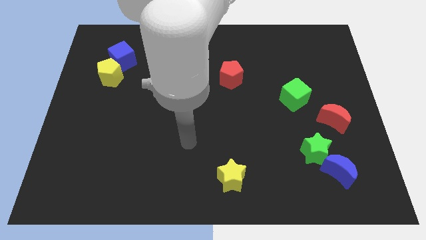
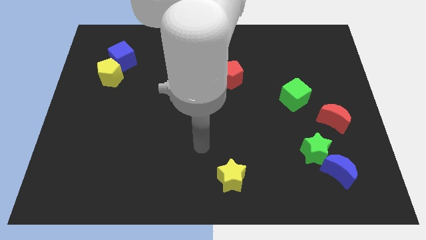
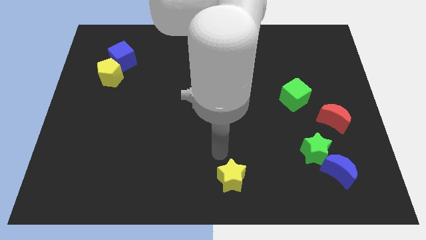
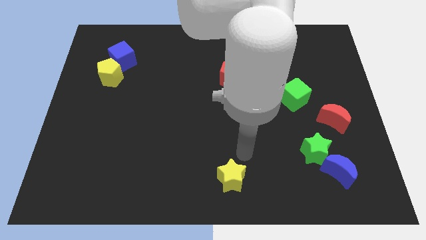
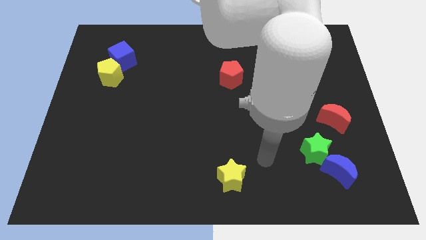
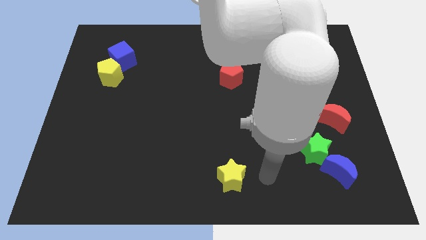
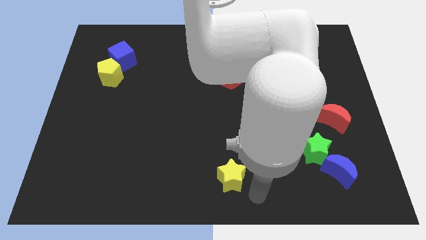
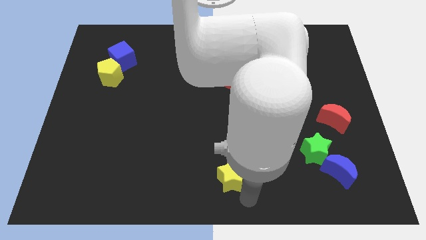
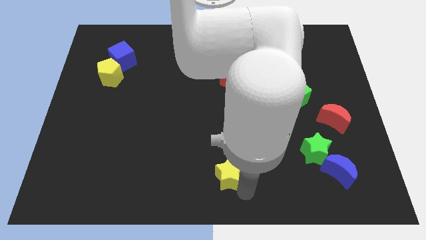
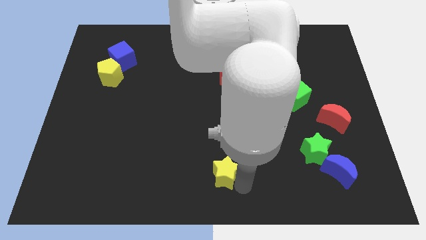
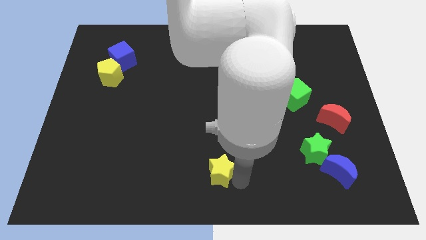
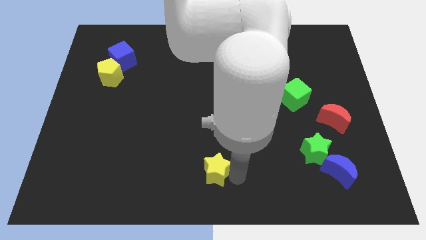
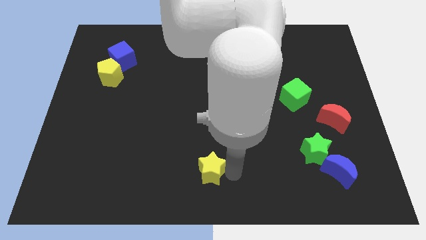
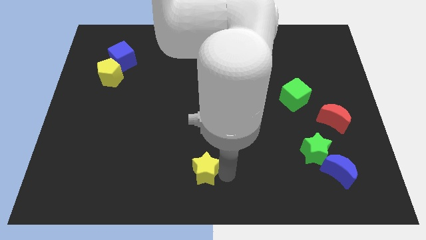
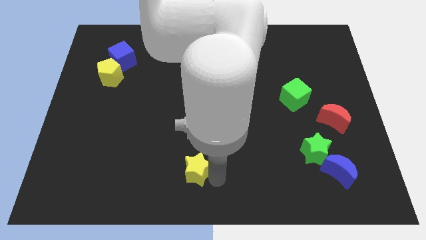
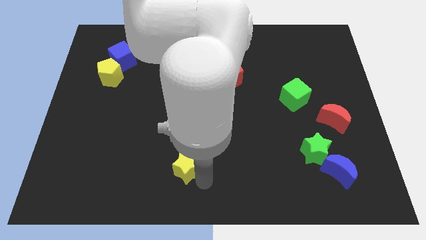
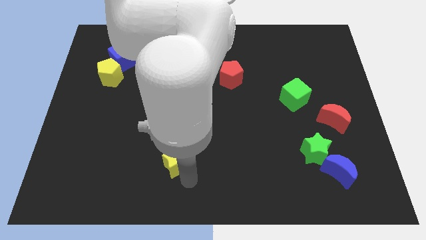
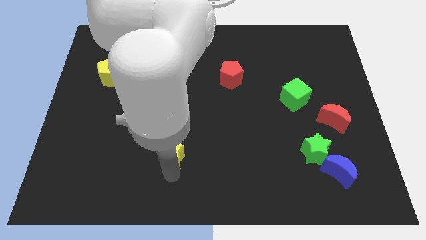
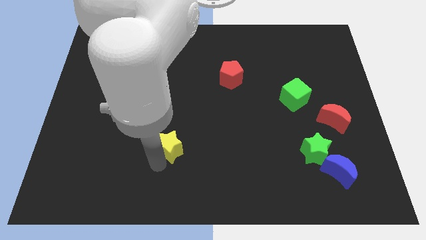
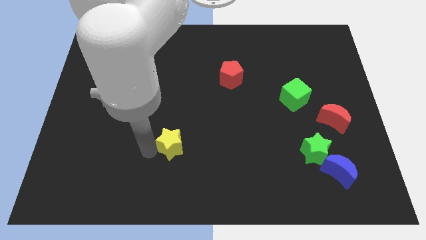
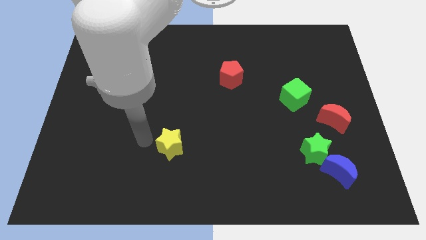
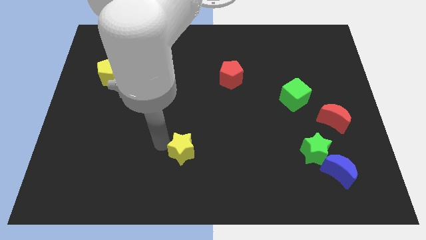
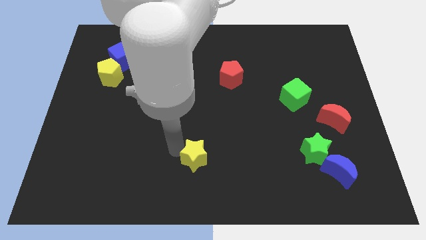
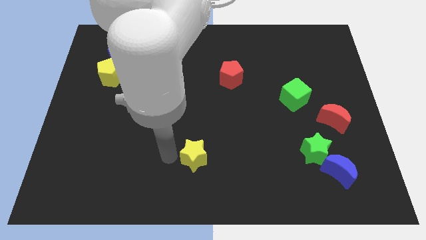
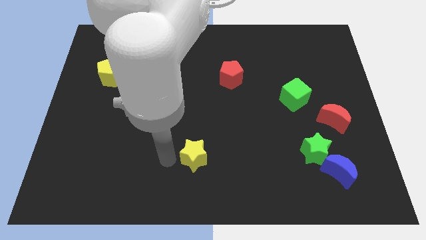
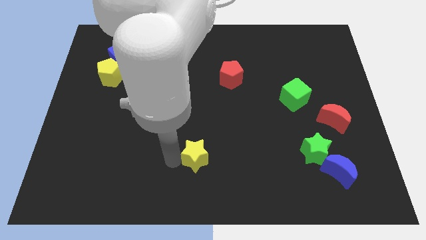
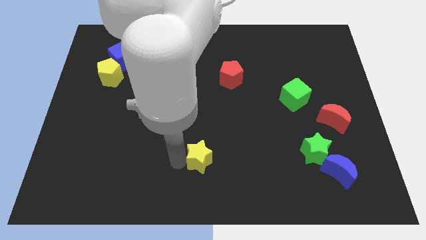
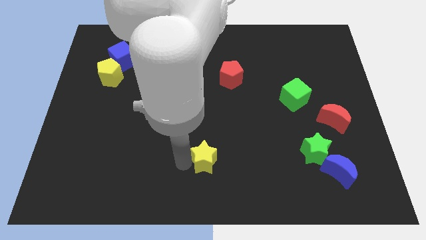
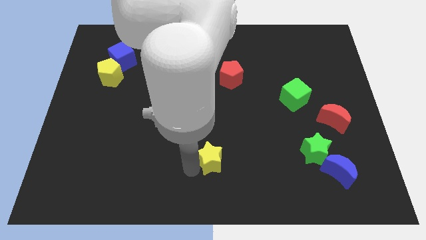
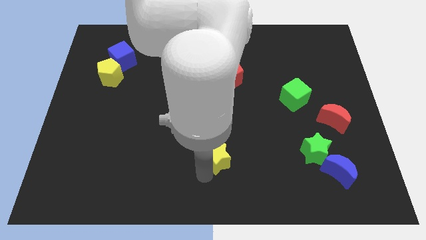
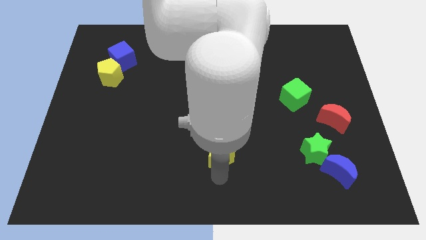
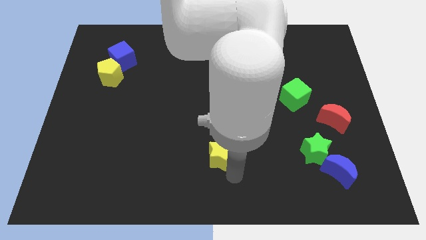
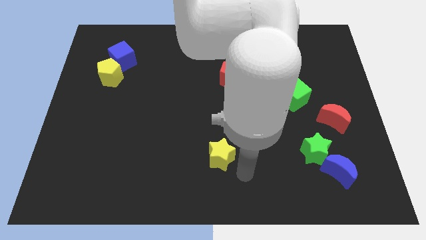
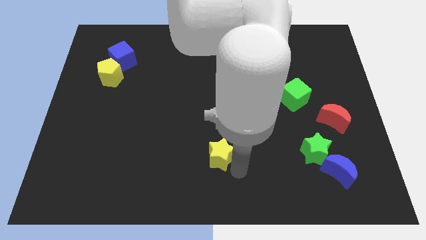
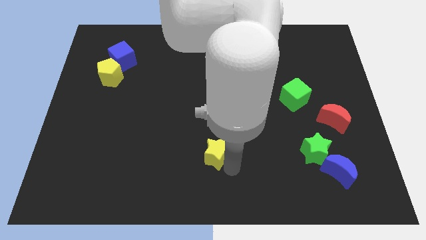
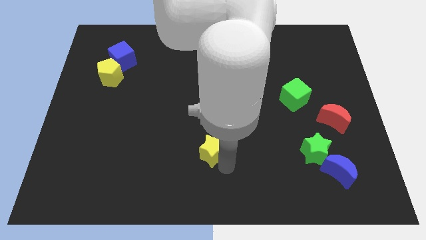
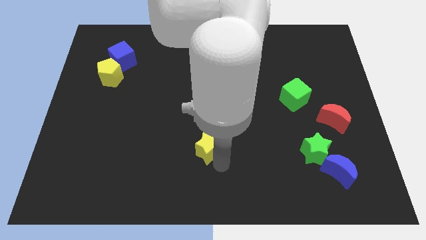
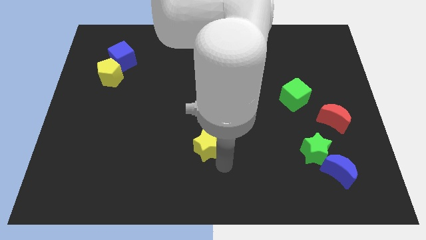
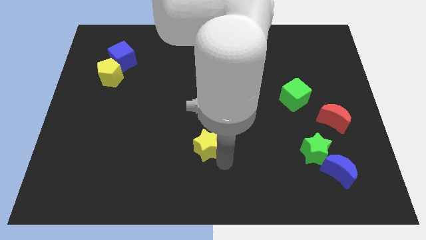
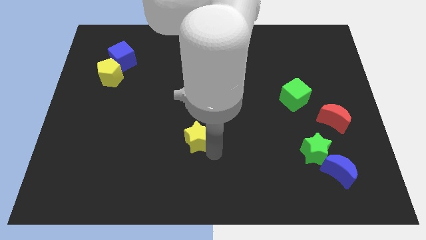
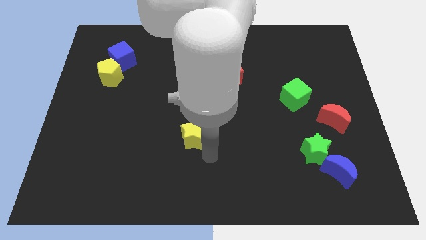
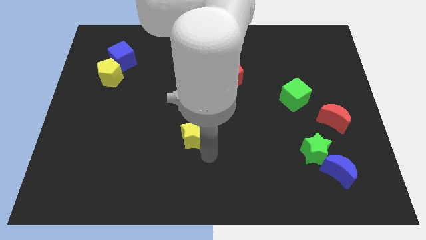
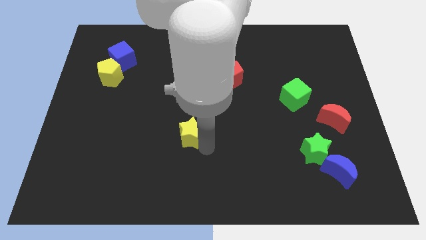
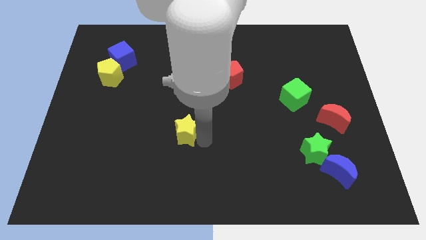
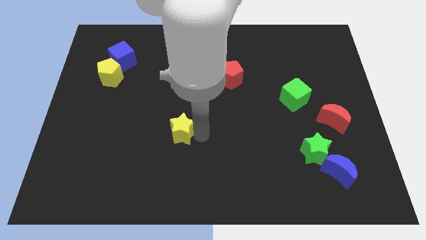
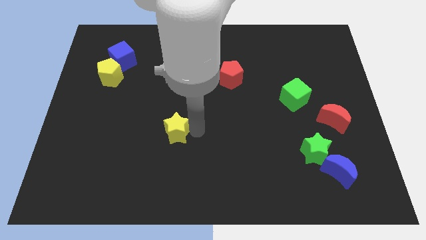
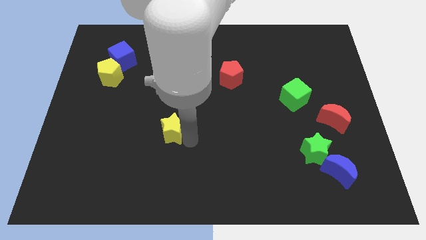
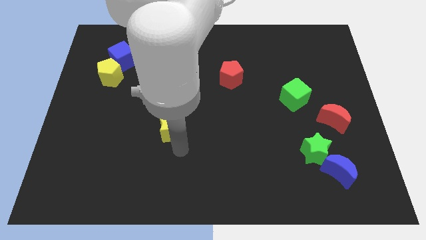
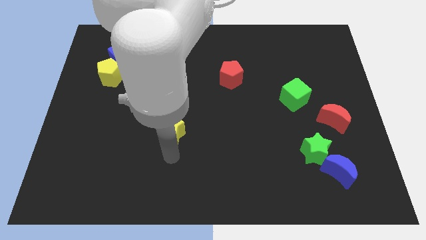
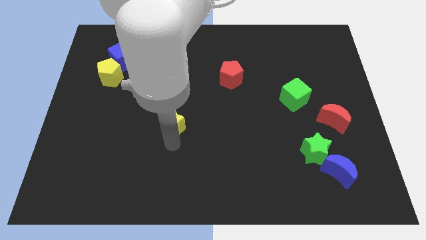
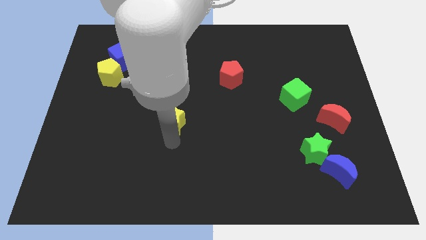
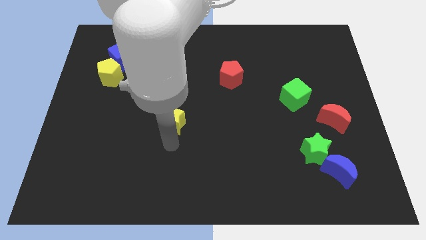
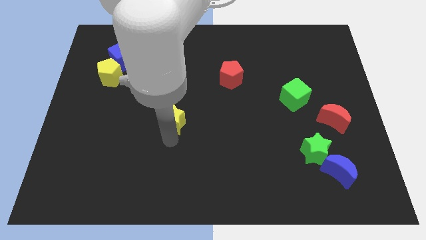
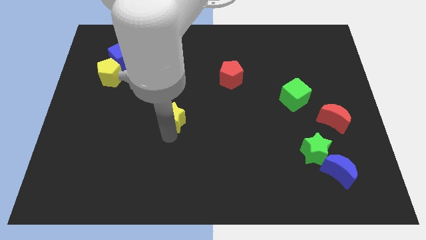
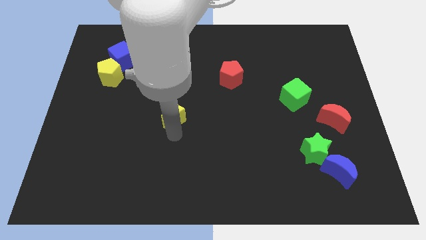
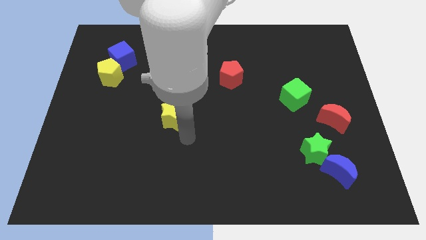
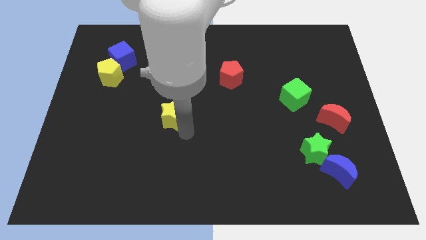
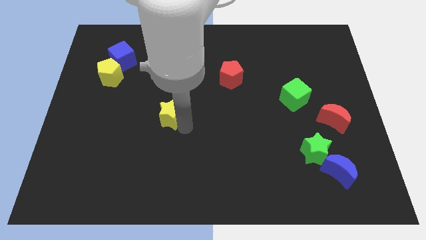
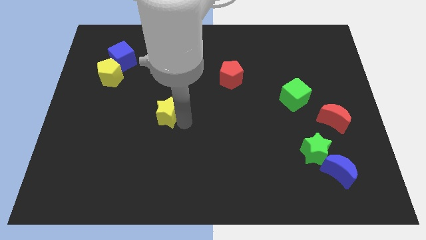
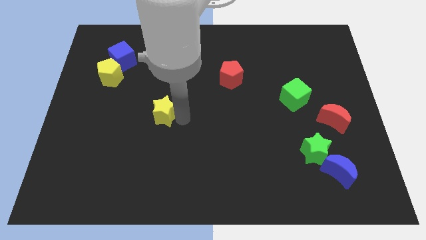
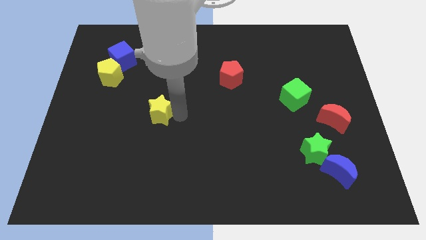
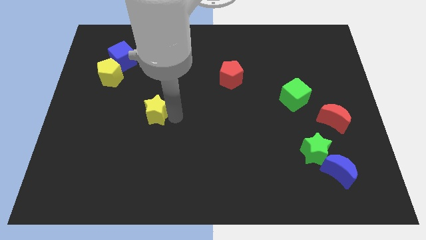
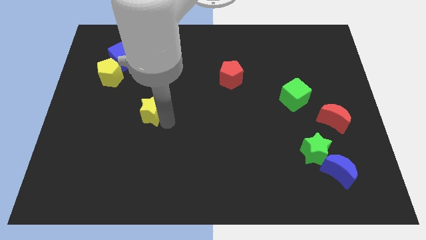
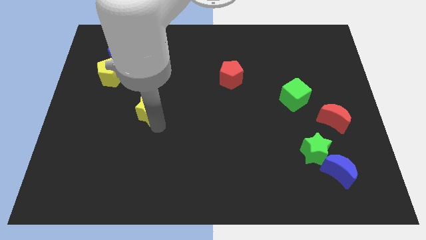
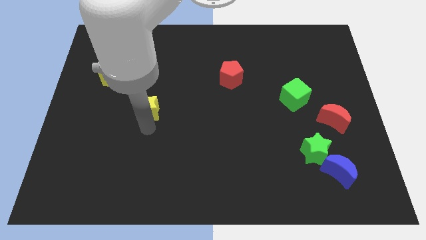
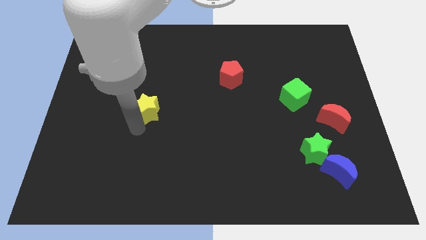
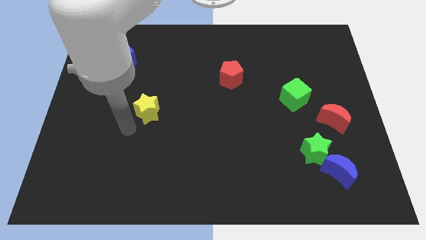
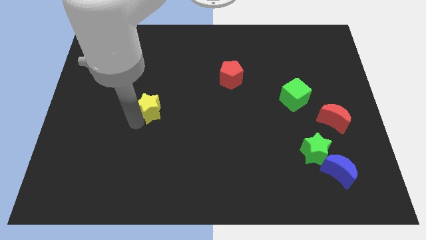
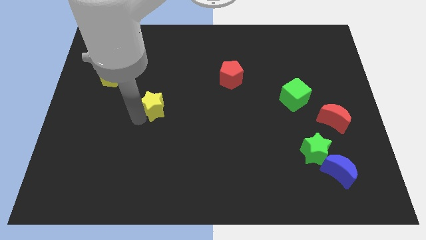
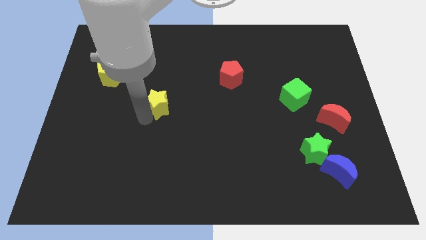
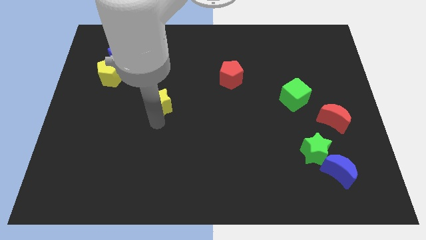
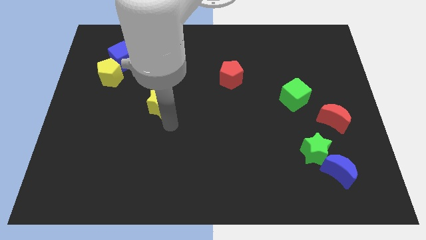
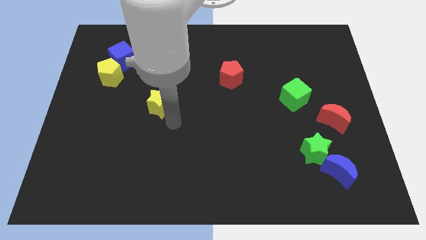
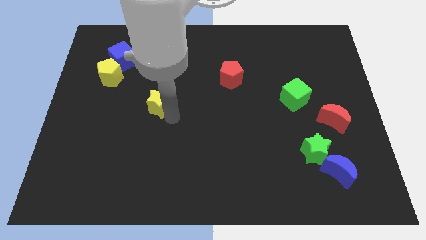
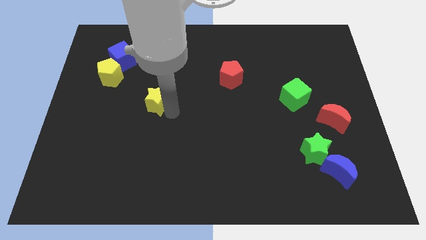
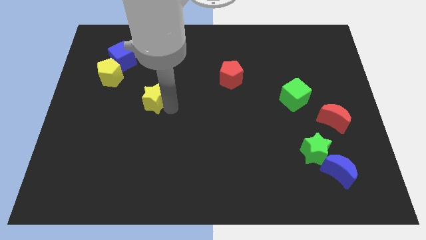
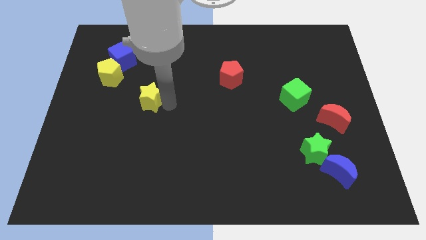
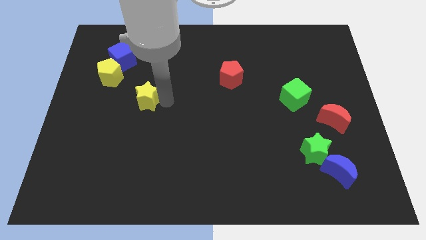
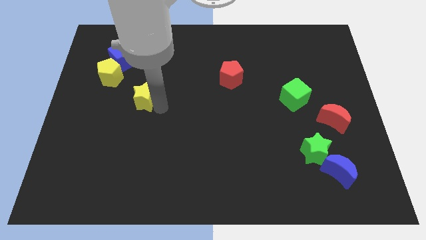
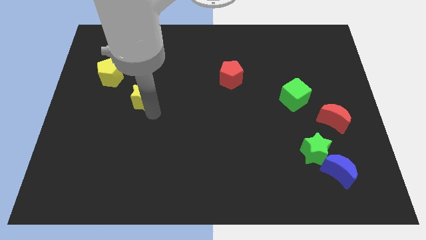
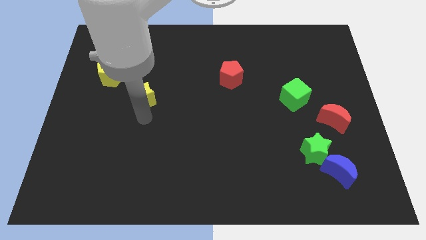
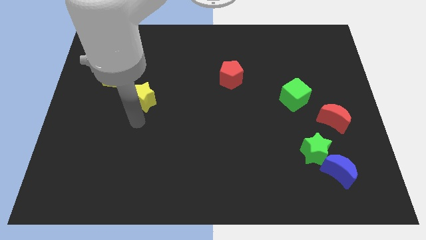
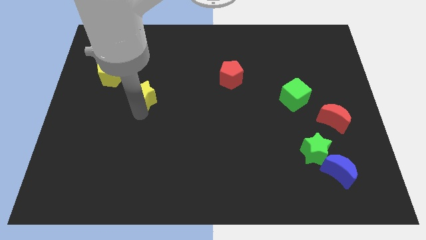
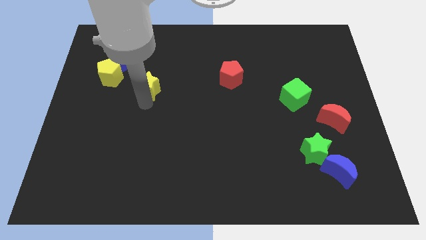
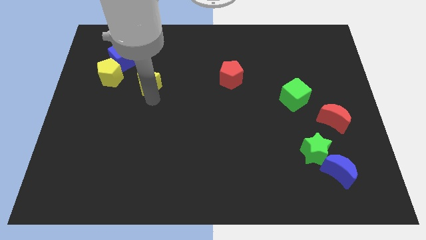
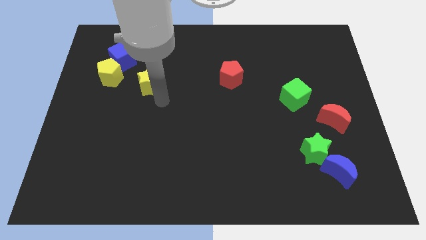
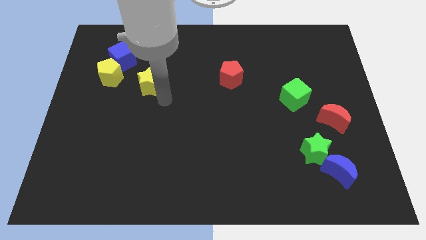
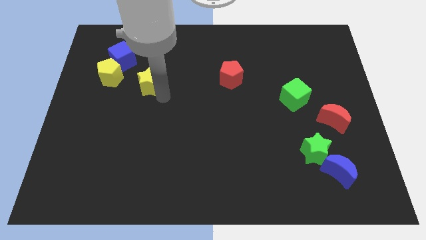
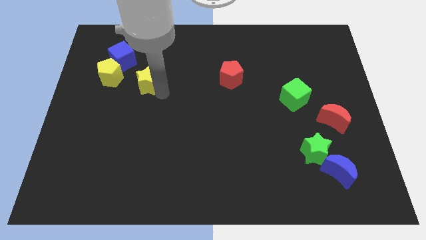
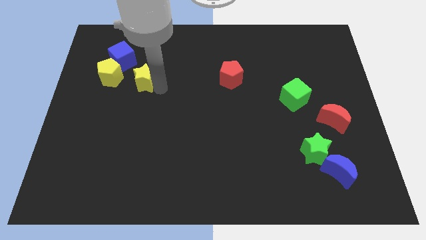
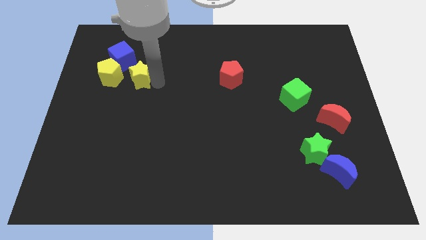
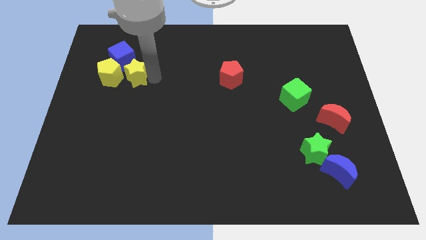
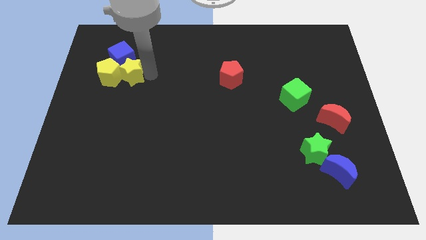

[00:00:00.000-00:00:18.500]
push the yellow star to the blue cube
